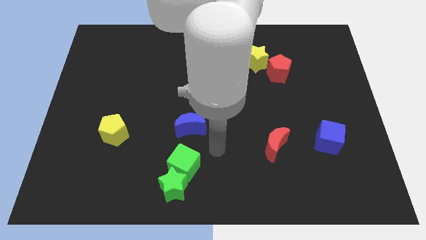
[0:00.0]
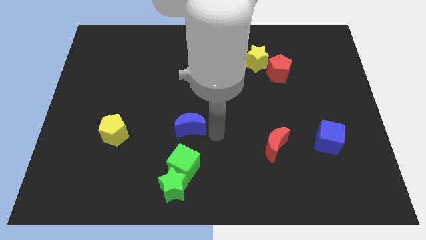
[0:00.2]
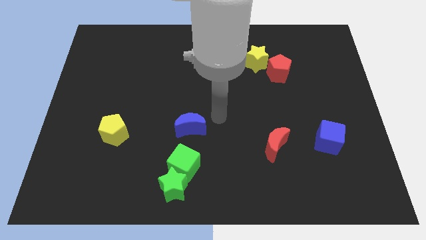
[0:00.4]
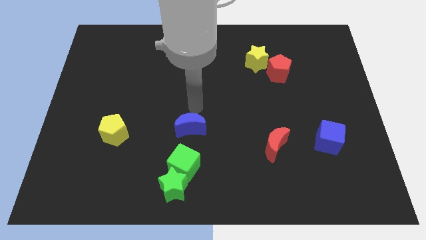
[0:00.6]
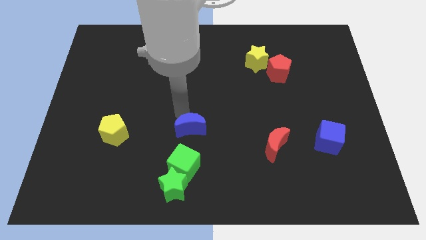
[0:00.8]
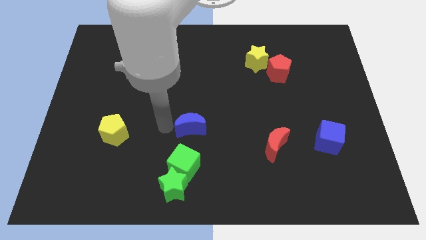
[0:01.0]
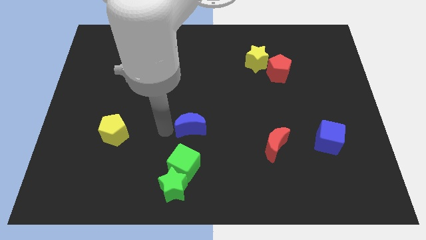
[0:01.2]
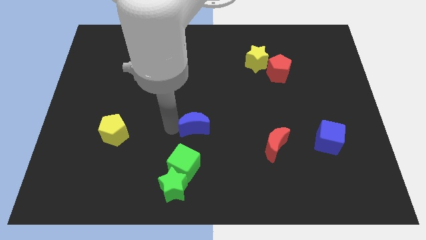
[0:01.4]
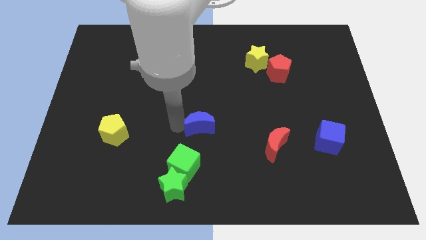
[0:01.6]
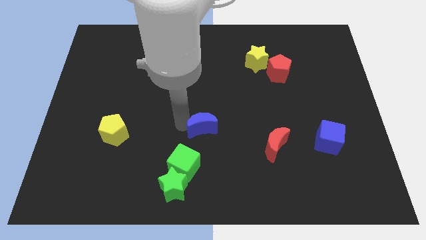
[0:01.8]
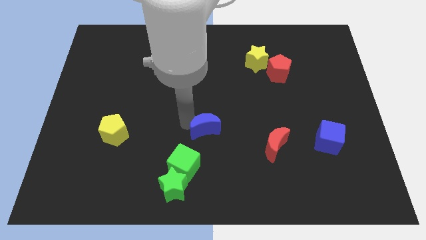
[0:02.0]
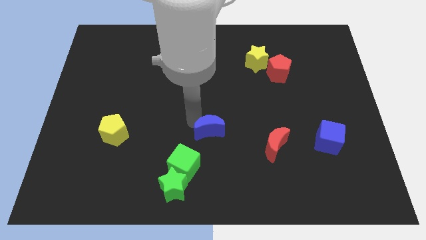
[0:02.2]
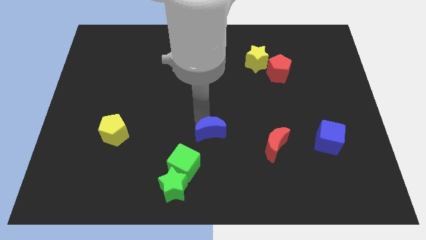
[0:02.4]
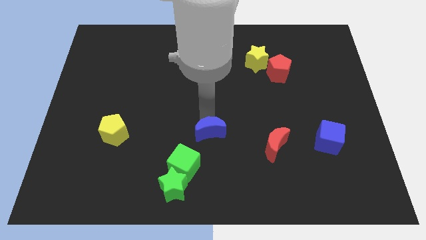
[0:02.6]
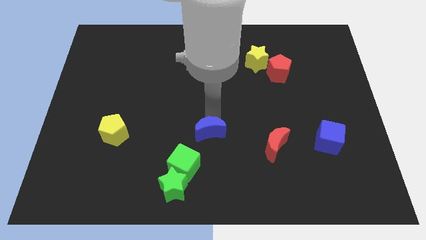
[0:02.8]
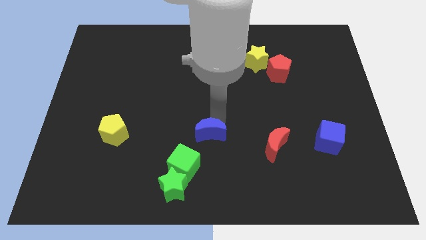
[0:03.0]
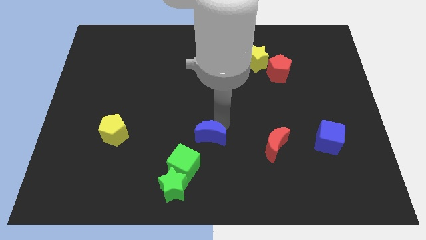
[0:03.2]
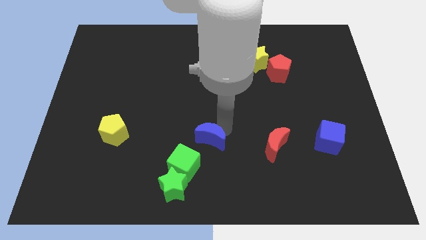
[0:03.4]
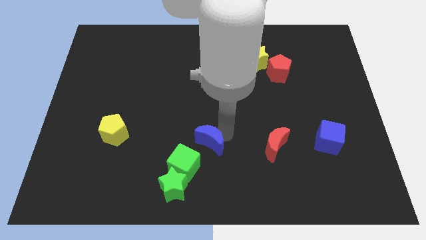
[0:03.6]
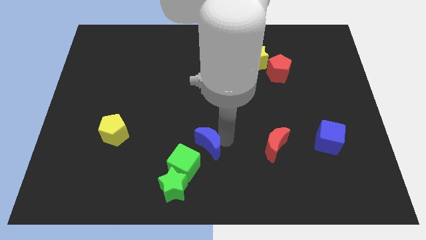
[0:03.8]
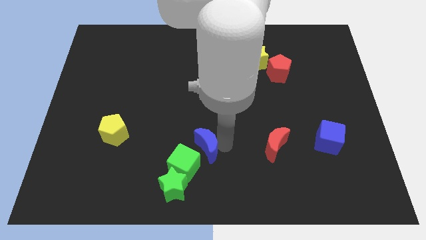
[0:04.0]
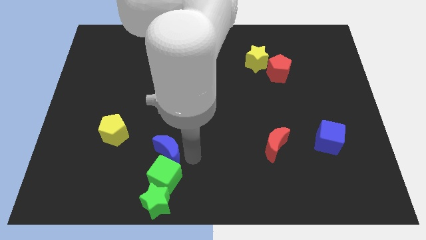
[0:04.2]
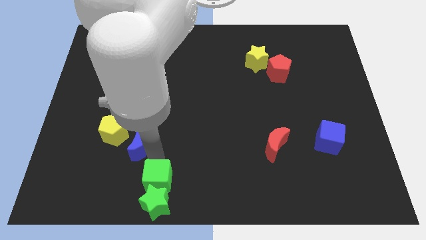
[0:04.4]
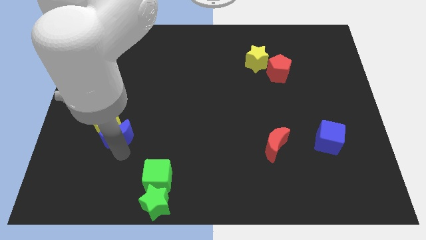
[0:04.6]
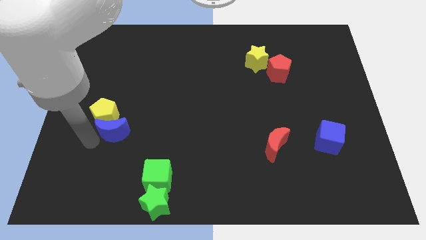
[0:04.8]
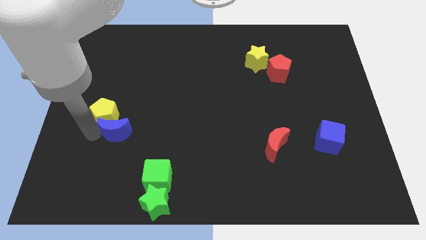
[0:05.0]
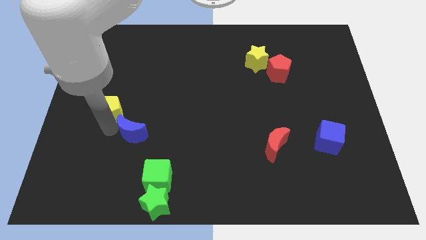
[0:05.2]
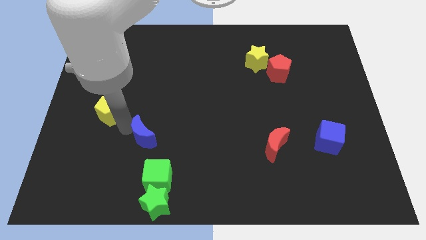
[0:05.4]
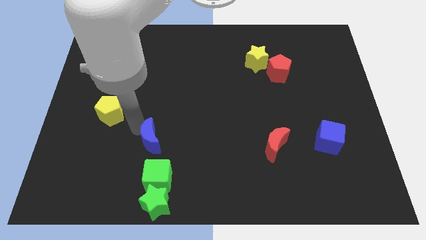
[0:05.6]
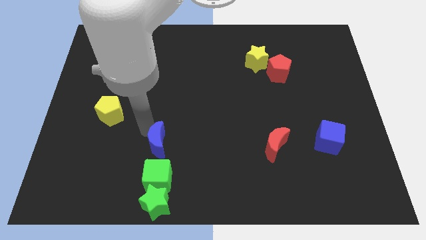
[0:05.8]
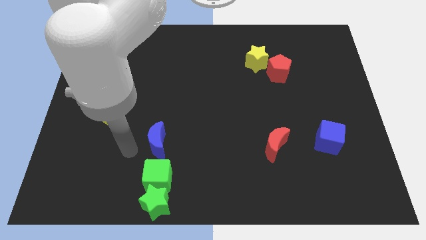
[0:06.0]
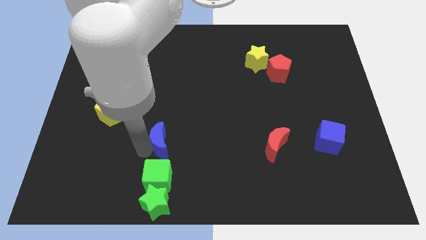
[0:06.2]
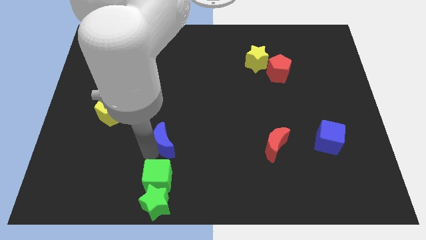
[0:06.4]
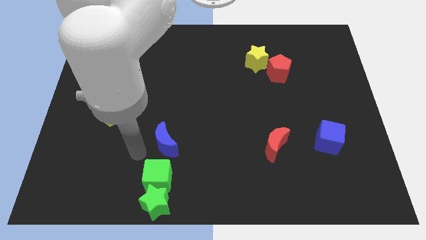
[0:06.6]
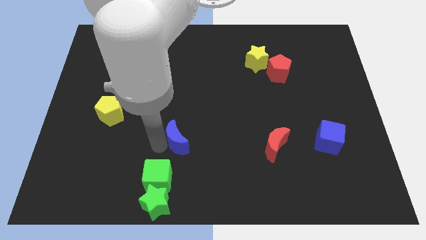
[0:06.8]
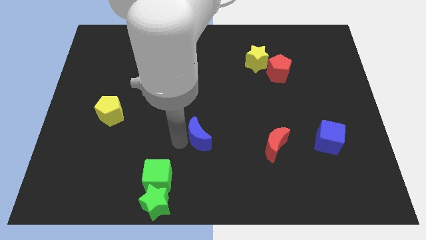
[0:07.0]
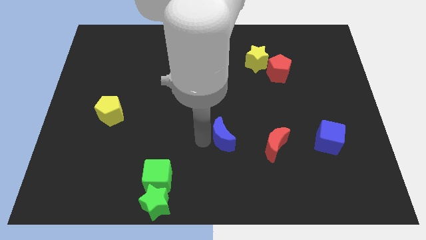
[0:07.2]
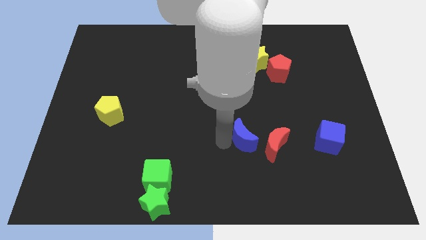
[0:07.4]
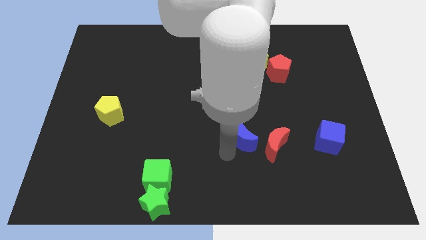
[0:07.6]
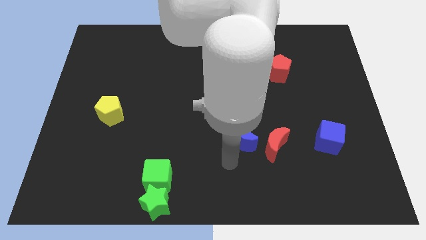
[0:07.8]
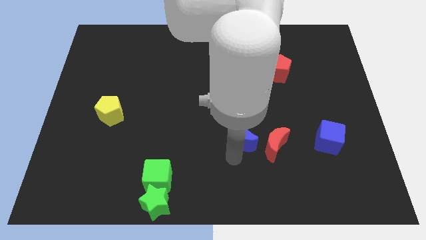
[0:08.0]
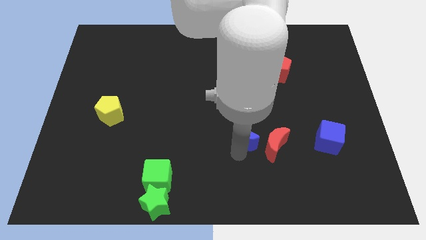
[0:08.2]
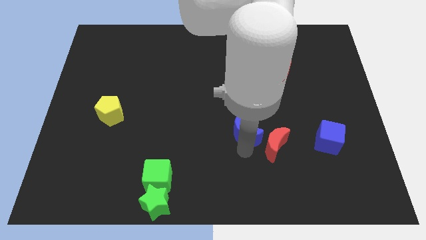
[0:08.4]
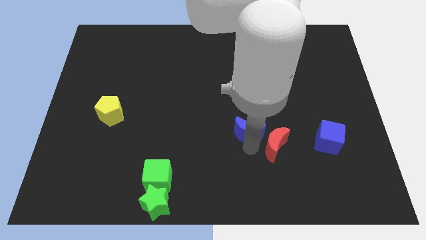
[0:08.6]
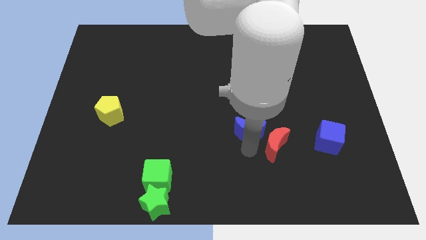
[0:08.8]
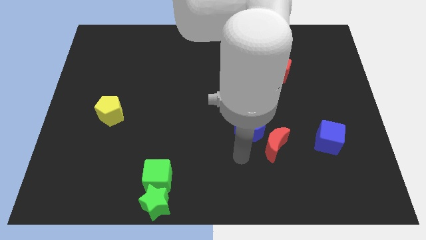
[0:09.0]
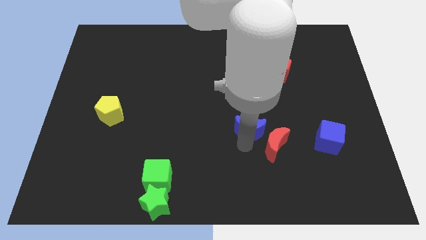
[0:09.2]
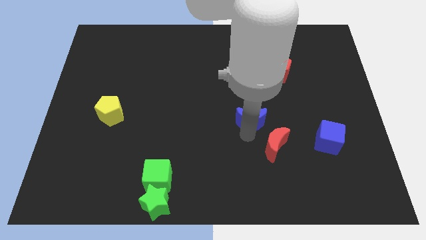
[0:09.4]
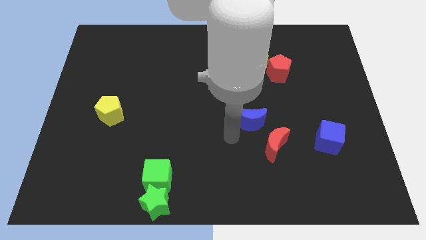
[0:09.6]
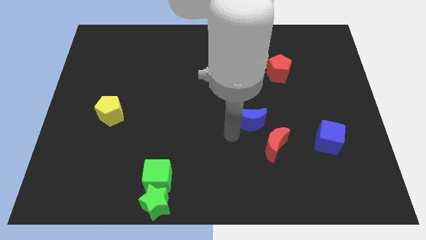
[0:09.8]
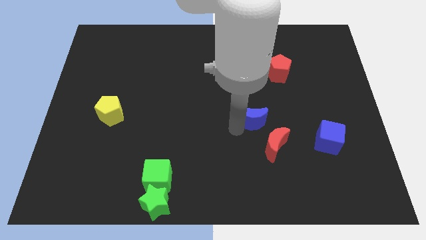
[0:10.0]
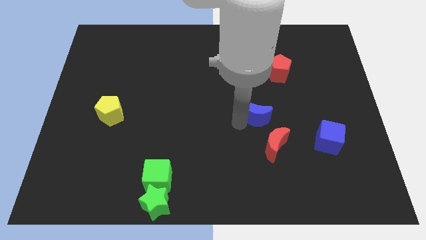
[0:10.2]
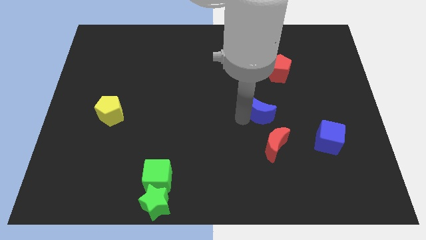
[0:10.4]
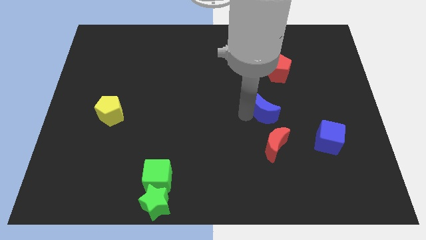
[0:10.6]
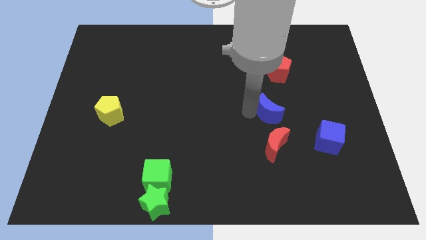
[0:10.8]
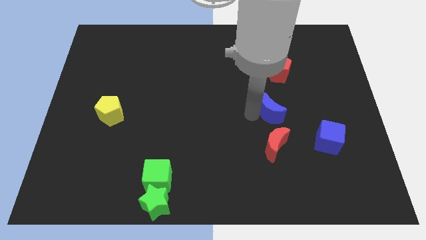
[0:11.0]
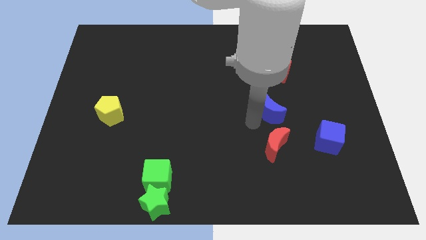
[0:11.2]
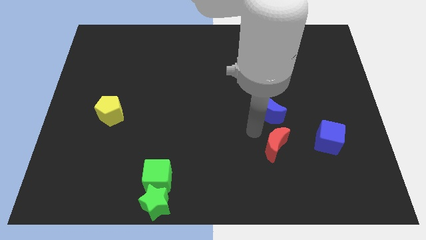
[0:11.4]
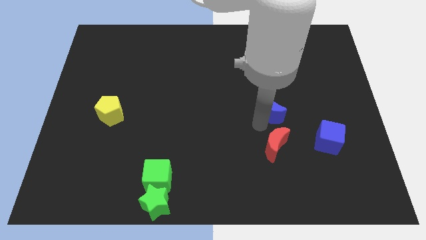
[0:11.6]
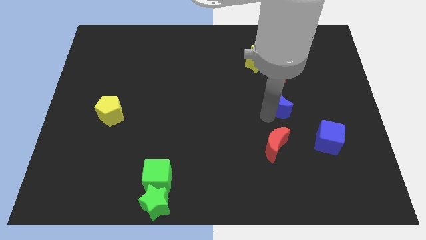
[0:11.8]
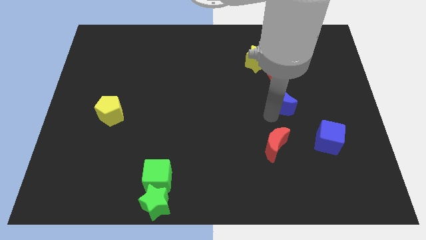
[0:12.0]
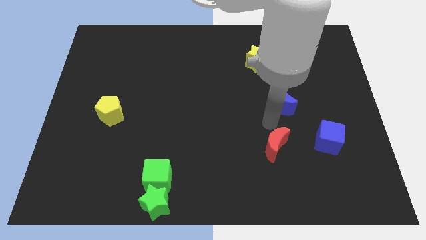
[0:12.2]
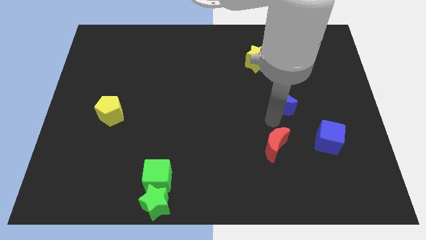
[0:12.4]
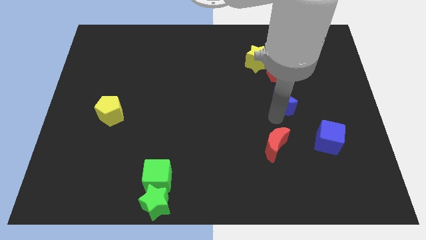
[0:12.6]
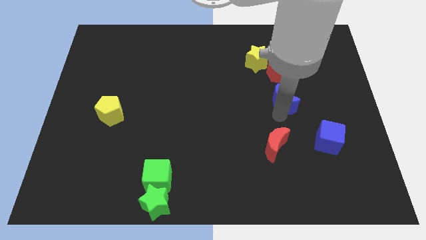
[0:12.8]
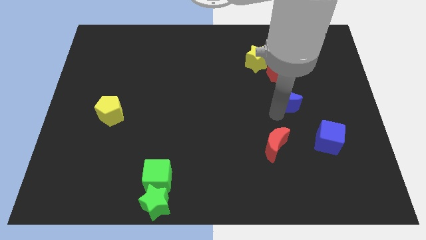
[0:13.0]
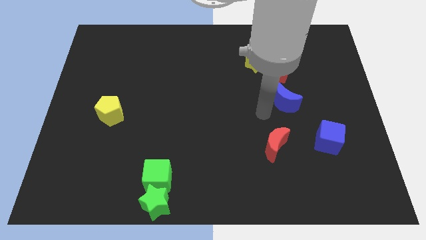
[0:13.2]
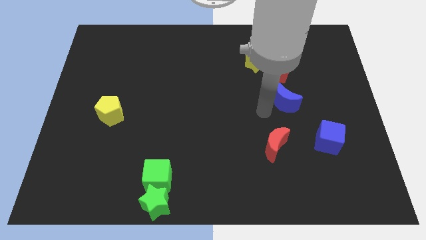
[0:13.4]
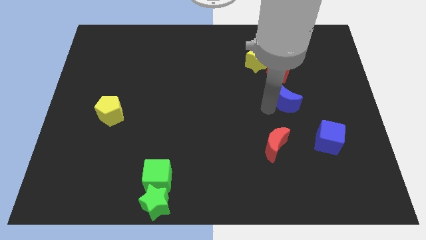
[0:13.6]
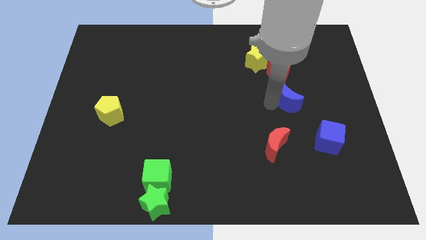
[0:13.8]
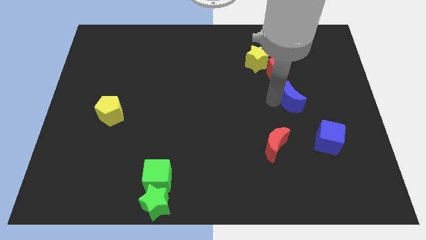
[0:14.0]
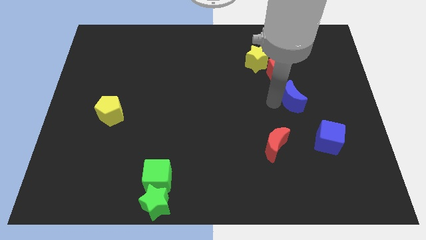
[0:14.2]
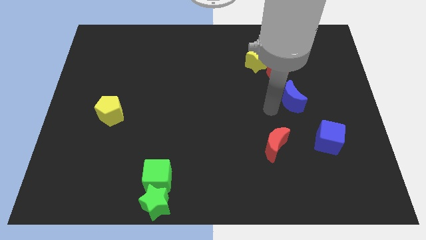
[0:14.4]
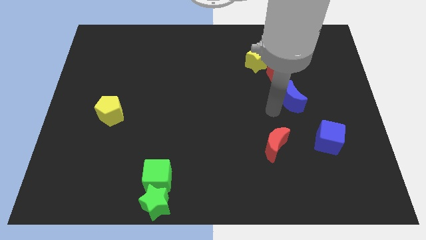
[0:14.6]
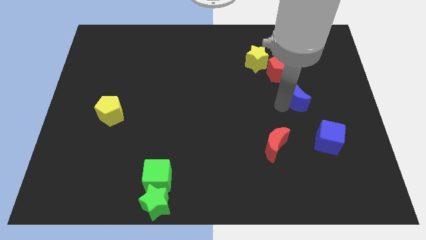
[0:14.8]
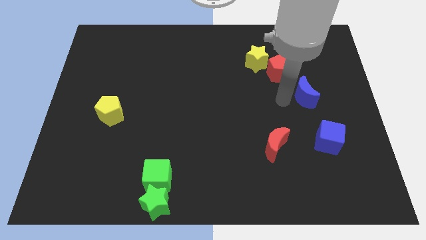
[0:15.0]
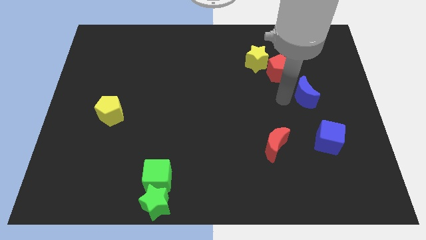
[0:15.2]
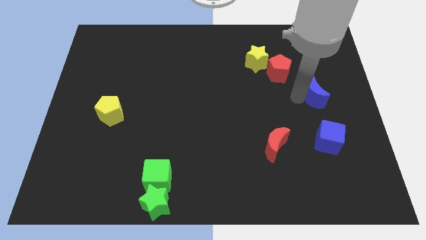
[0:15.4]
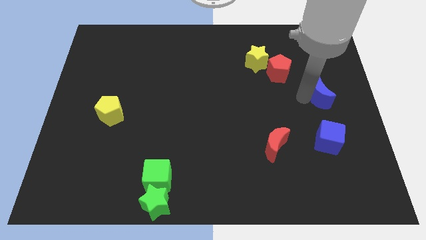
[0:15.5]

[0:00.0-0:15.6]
move the blue moon to the right side

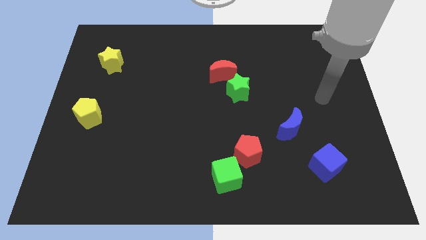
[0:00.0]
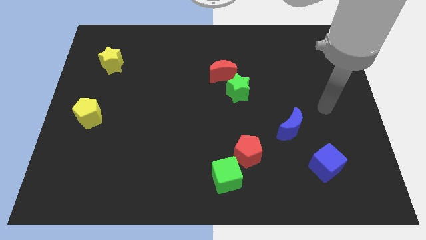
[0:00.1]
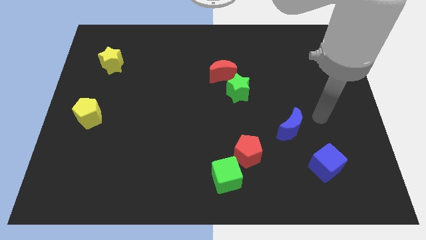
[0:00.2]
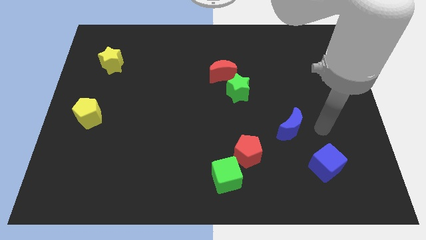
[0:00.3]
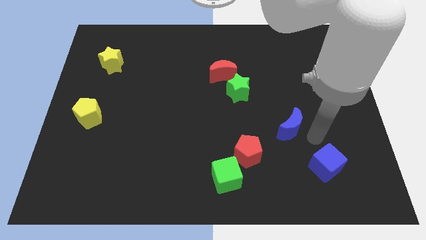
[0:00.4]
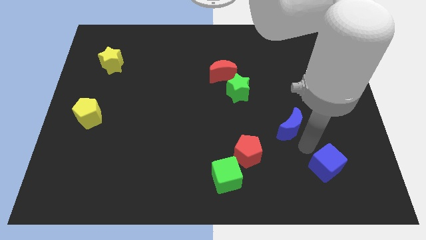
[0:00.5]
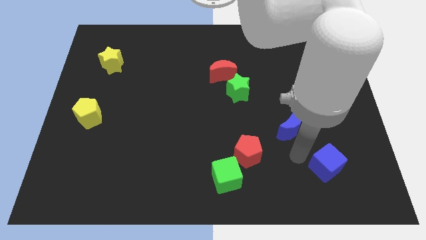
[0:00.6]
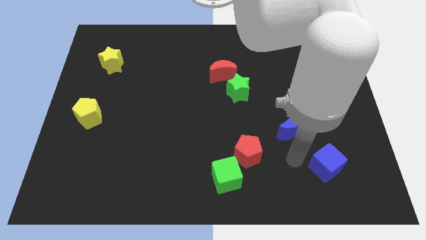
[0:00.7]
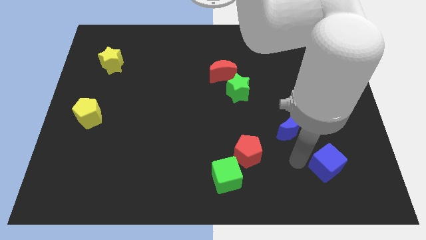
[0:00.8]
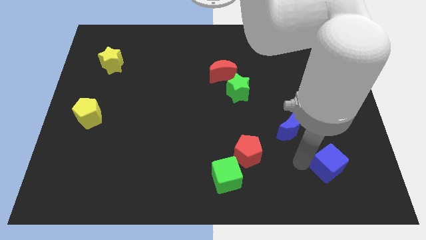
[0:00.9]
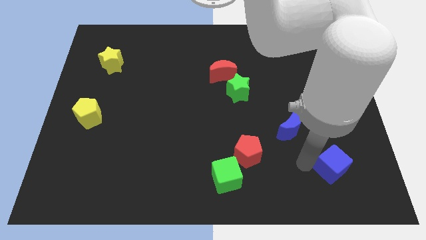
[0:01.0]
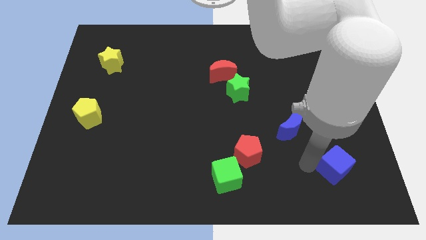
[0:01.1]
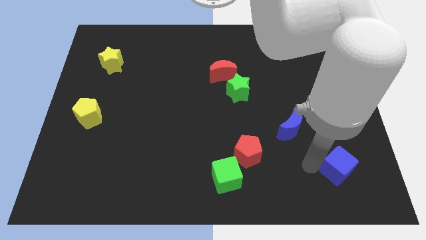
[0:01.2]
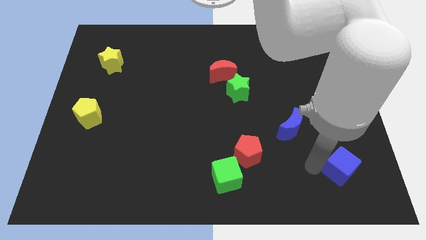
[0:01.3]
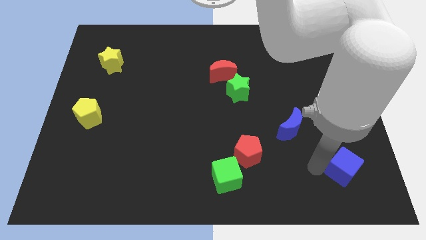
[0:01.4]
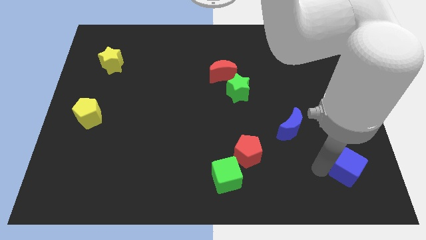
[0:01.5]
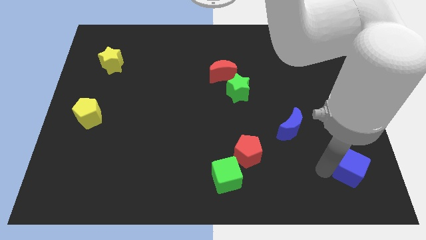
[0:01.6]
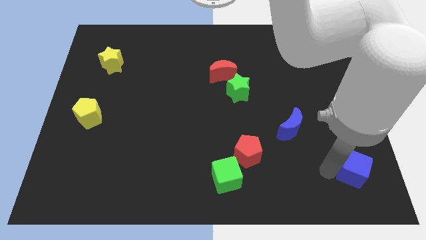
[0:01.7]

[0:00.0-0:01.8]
move the blue cube to the bottom right corner
